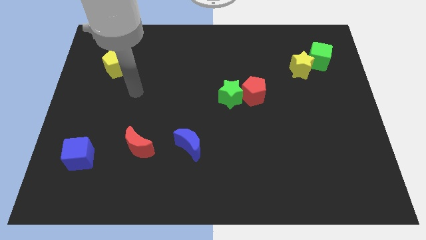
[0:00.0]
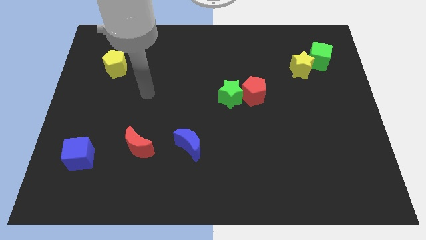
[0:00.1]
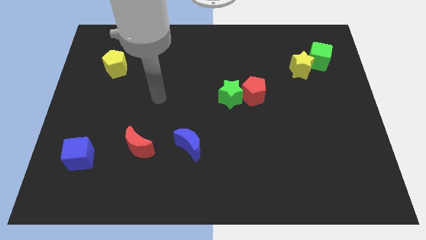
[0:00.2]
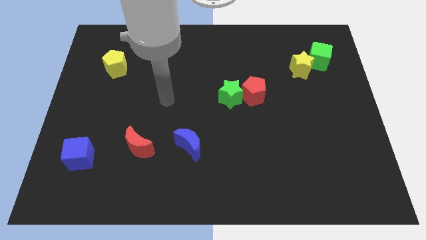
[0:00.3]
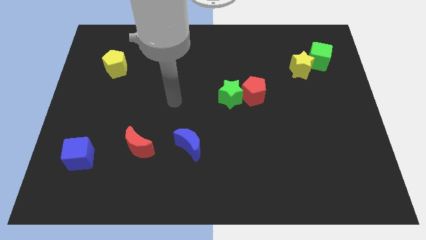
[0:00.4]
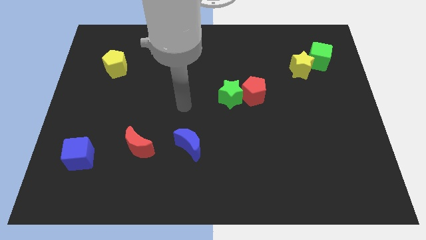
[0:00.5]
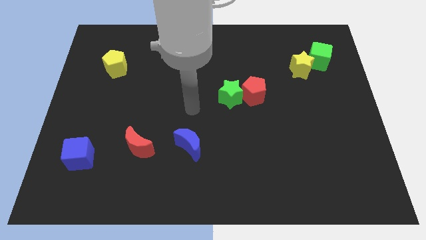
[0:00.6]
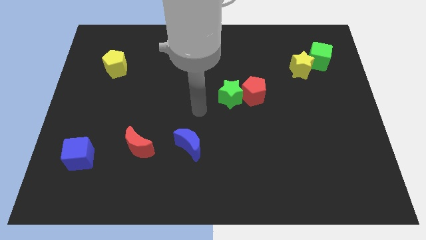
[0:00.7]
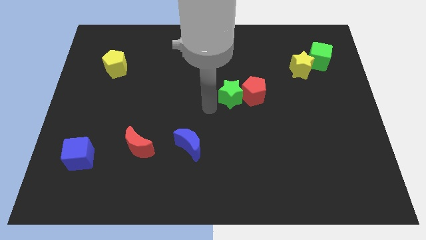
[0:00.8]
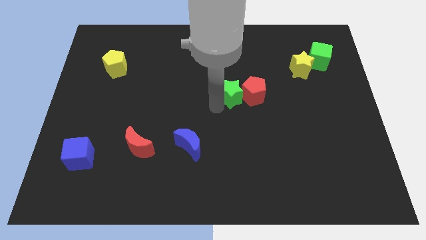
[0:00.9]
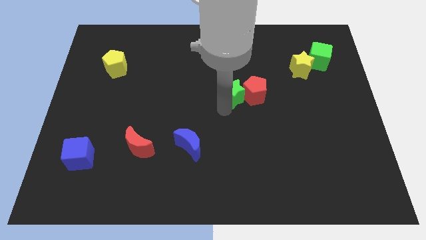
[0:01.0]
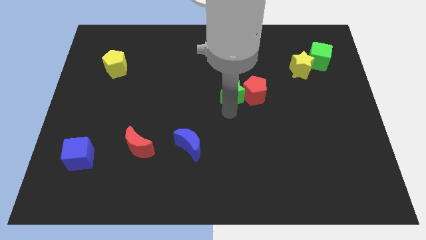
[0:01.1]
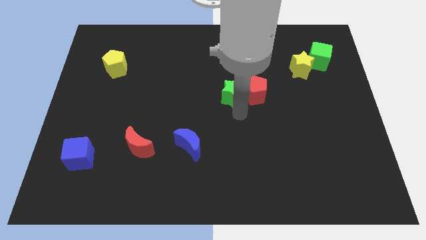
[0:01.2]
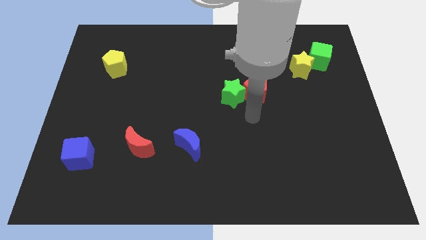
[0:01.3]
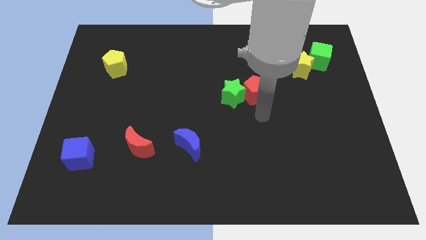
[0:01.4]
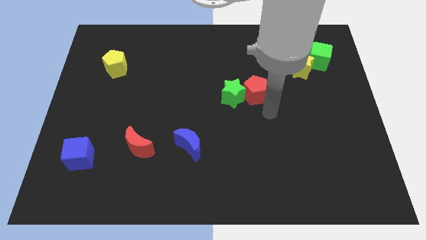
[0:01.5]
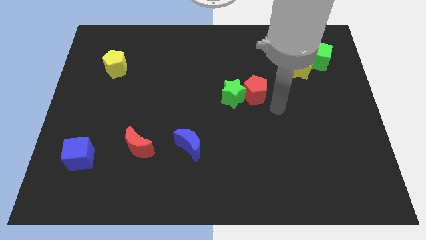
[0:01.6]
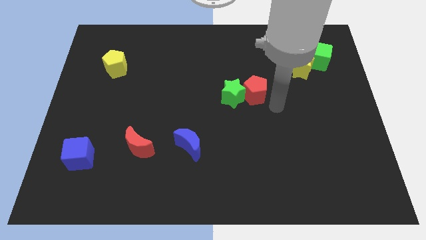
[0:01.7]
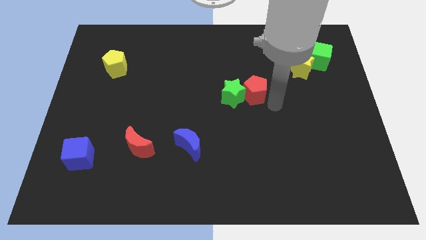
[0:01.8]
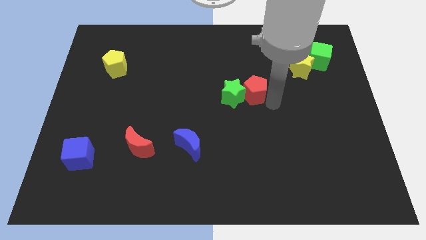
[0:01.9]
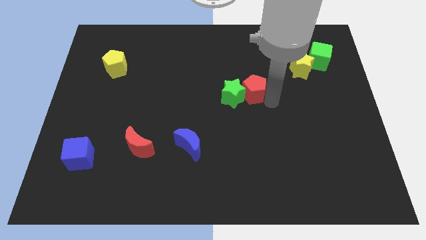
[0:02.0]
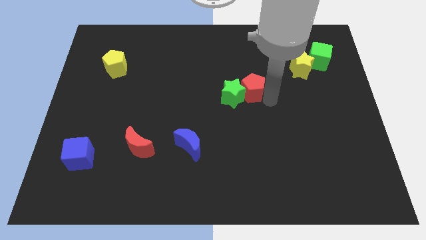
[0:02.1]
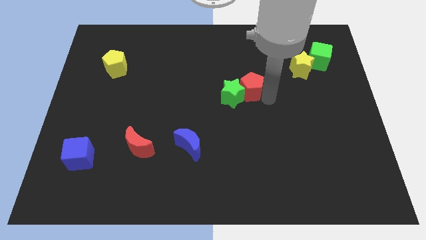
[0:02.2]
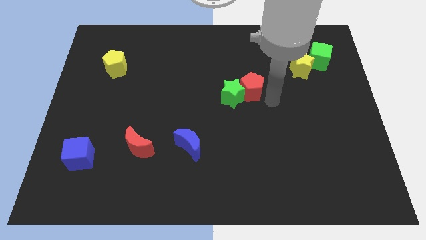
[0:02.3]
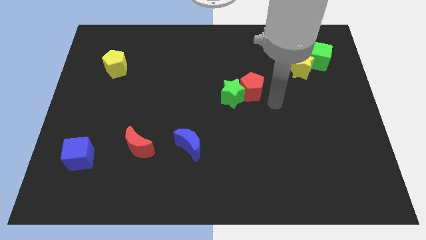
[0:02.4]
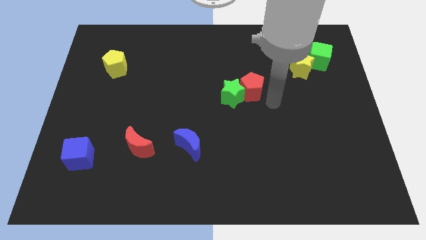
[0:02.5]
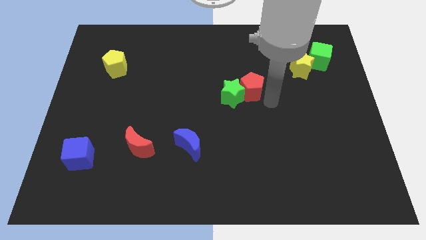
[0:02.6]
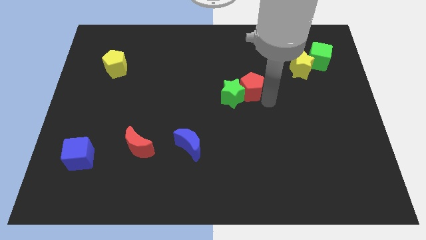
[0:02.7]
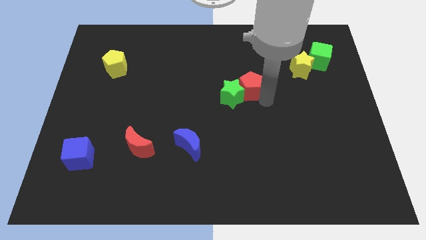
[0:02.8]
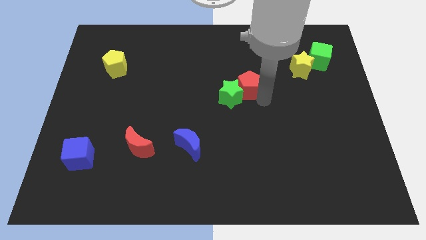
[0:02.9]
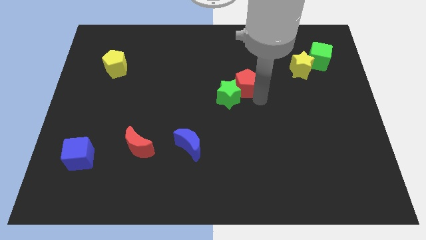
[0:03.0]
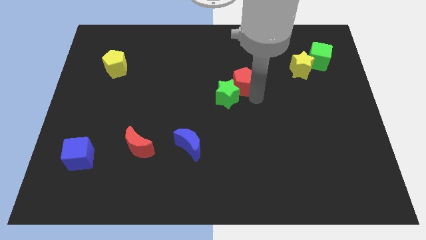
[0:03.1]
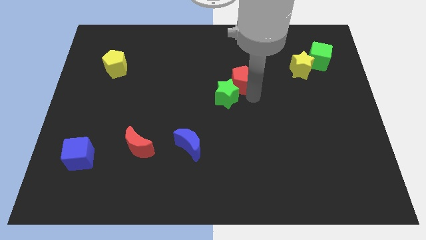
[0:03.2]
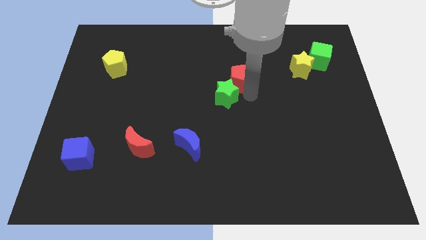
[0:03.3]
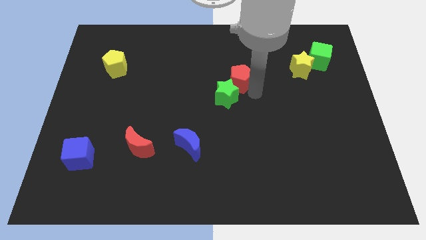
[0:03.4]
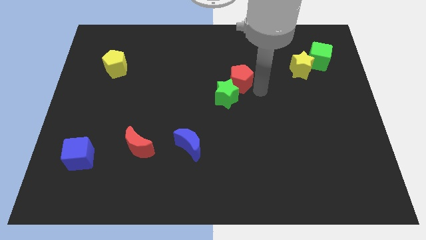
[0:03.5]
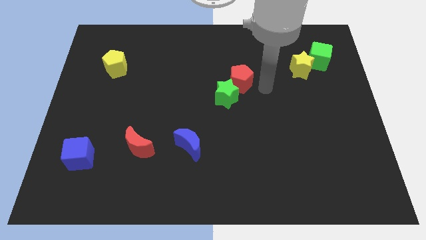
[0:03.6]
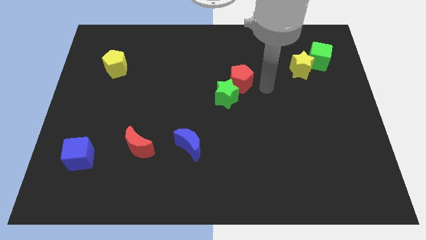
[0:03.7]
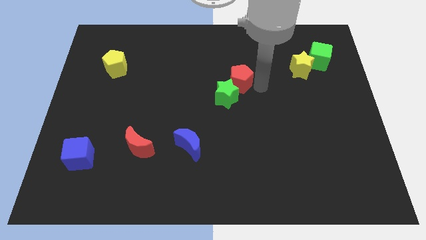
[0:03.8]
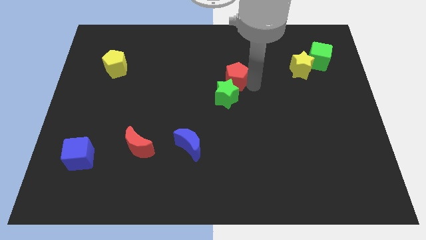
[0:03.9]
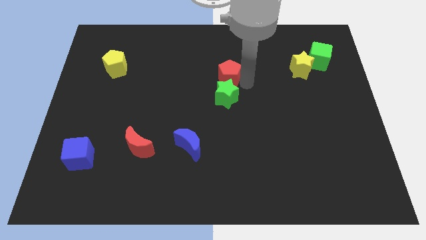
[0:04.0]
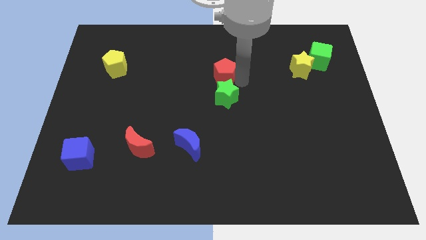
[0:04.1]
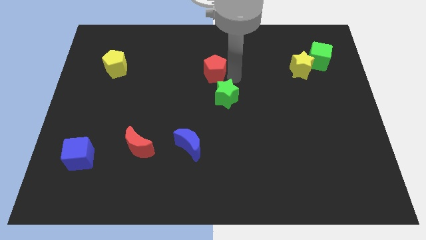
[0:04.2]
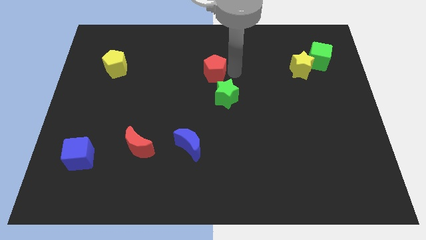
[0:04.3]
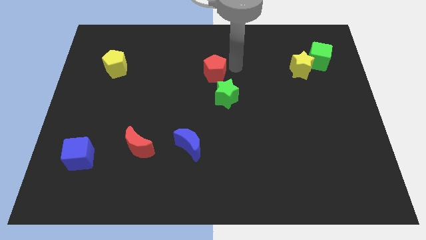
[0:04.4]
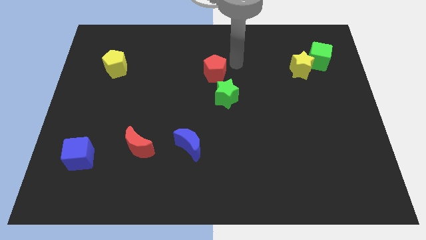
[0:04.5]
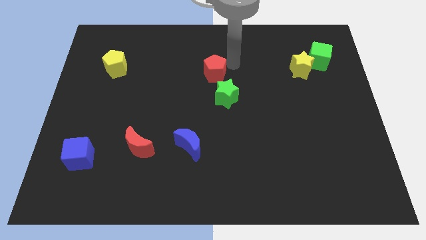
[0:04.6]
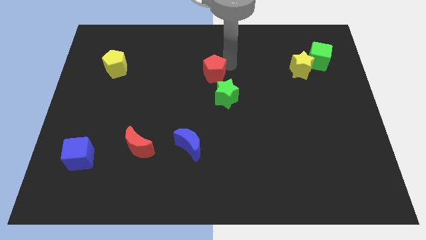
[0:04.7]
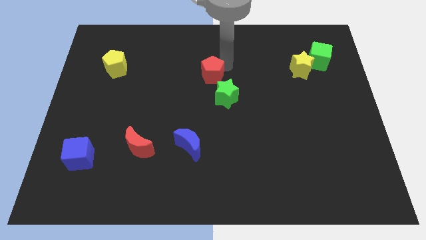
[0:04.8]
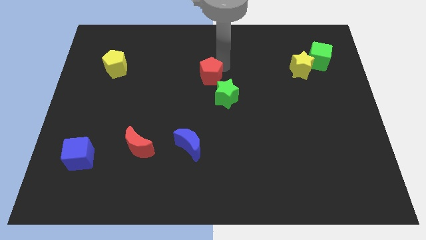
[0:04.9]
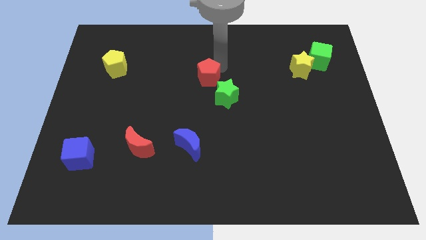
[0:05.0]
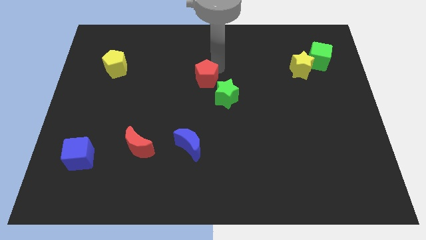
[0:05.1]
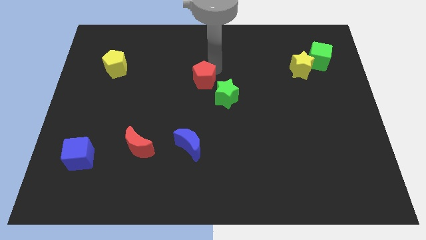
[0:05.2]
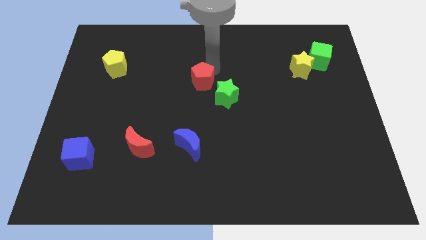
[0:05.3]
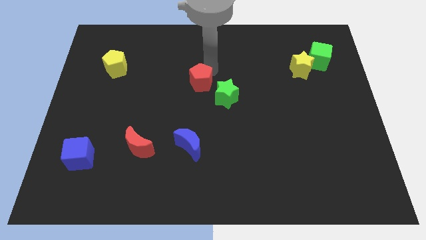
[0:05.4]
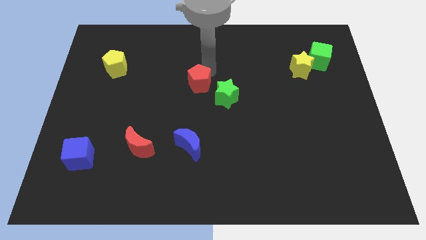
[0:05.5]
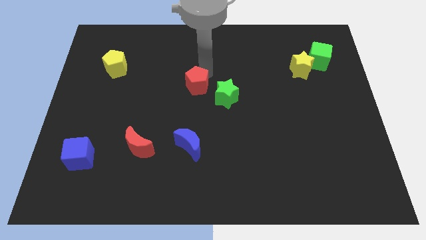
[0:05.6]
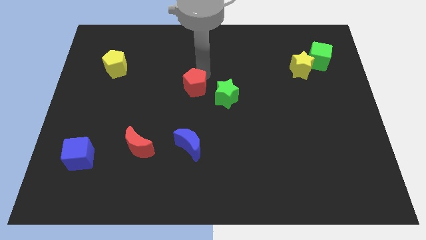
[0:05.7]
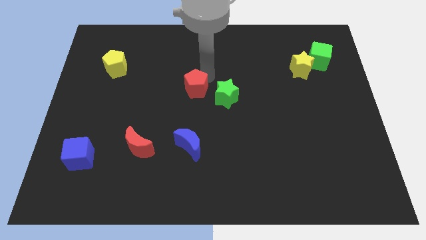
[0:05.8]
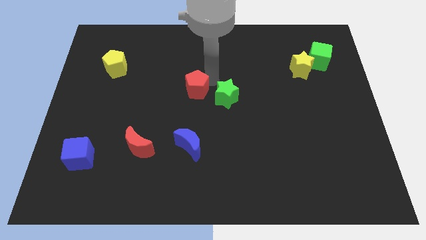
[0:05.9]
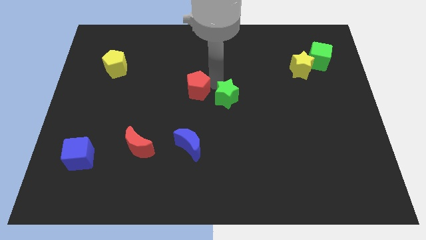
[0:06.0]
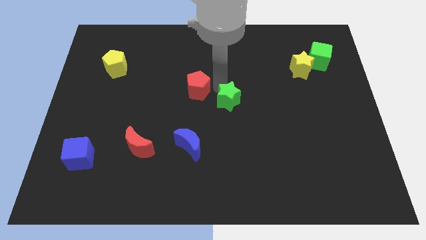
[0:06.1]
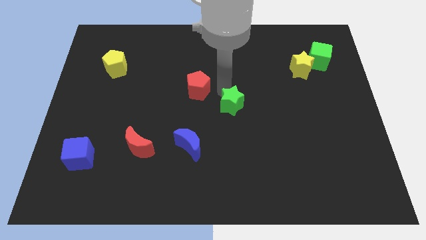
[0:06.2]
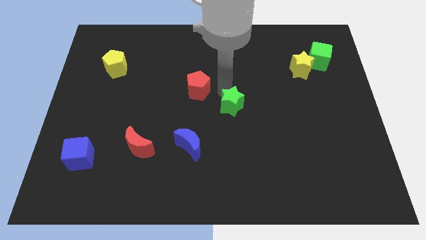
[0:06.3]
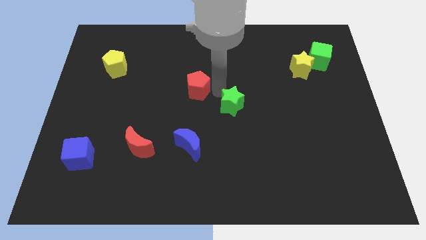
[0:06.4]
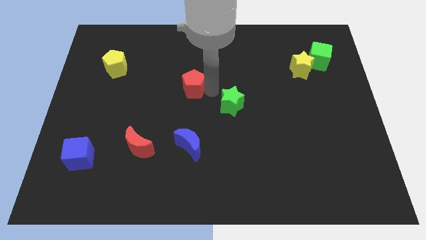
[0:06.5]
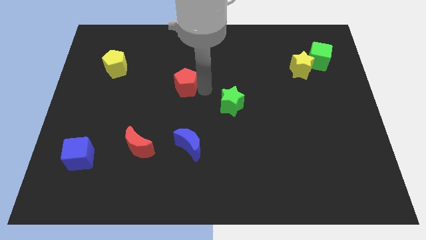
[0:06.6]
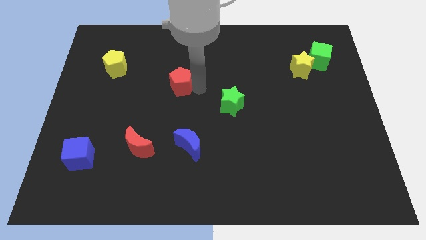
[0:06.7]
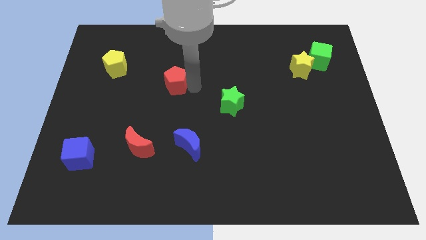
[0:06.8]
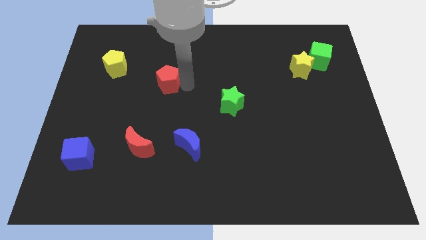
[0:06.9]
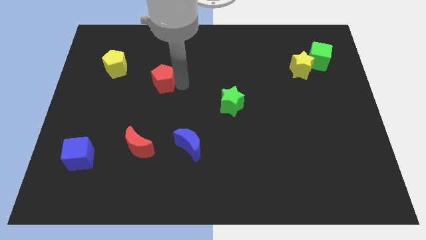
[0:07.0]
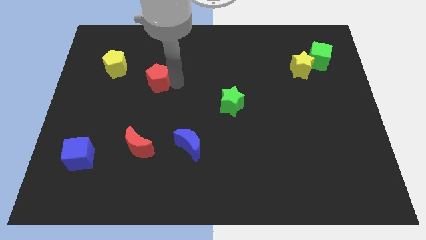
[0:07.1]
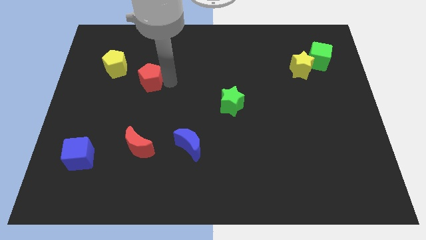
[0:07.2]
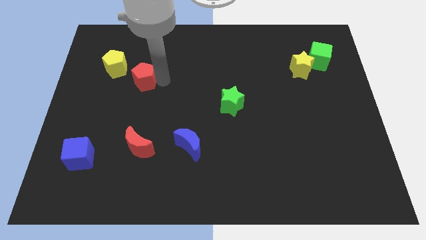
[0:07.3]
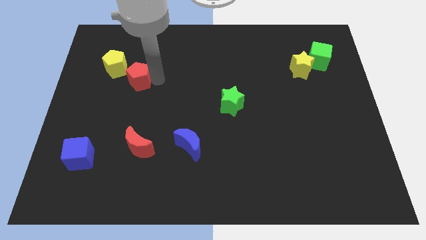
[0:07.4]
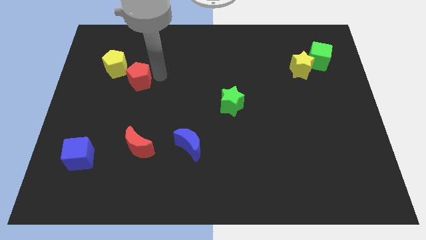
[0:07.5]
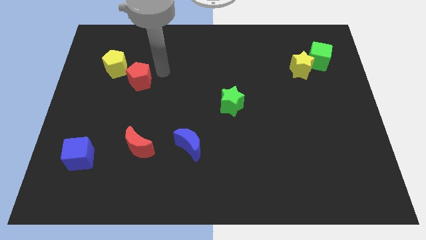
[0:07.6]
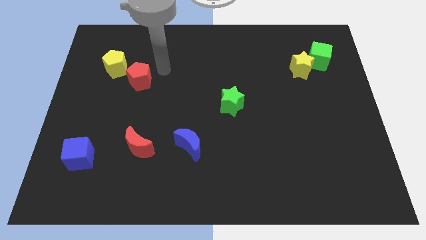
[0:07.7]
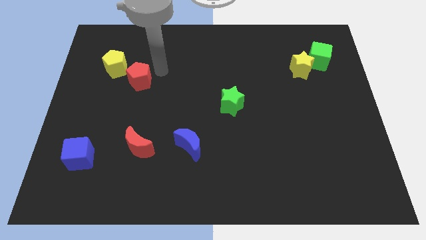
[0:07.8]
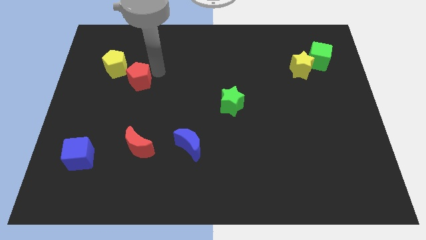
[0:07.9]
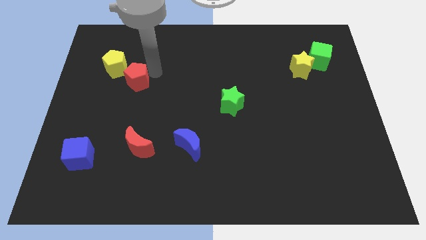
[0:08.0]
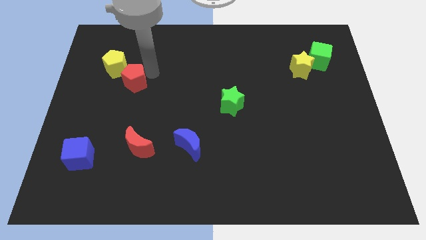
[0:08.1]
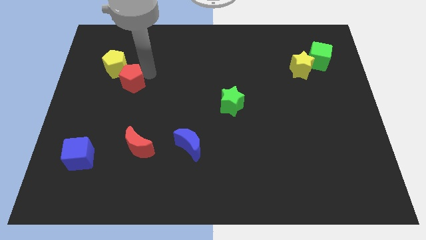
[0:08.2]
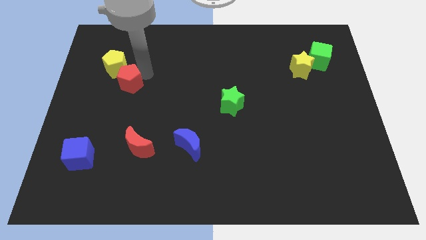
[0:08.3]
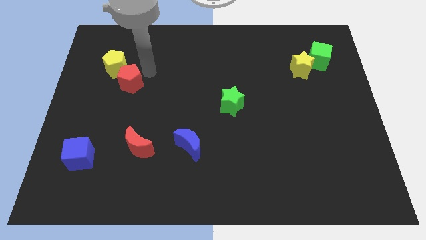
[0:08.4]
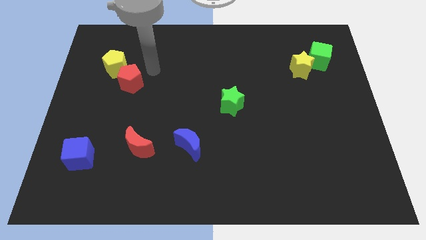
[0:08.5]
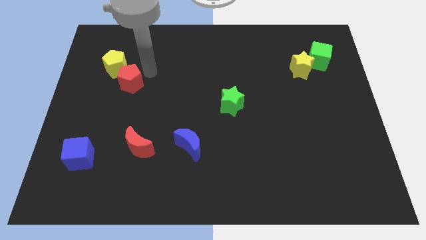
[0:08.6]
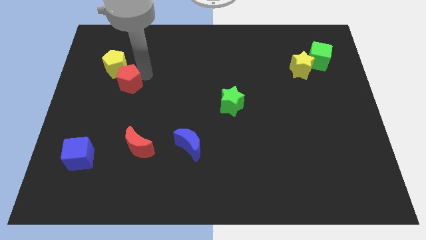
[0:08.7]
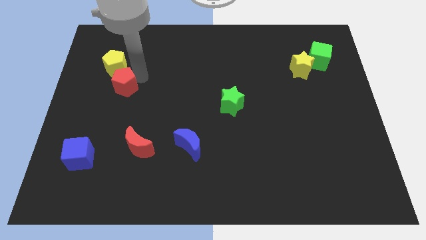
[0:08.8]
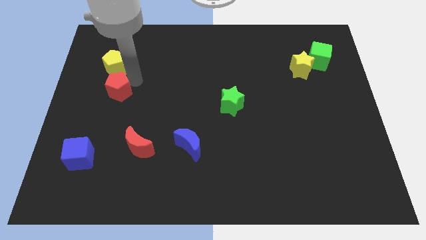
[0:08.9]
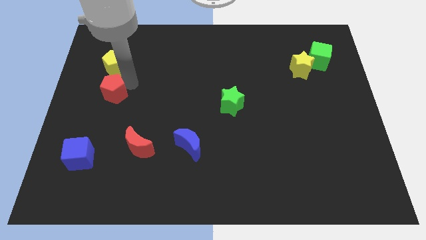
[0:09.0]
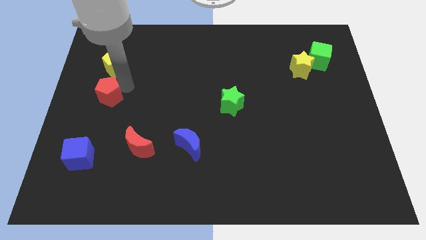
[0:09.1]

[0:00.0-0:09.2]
put the red pentagon to the left side
